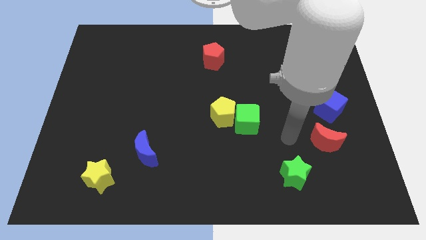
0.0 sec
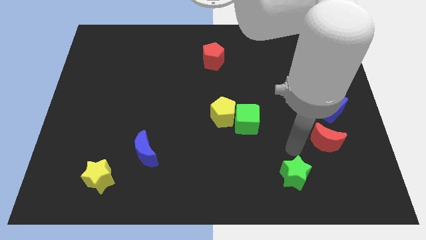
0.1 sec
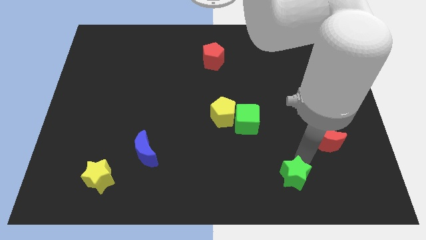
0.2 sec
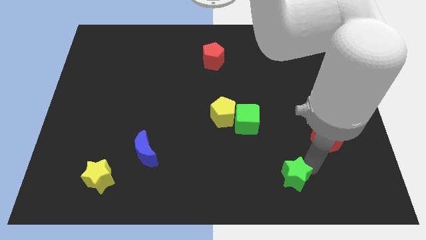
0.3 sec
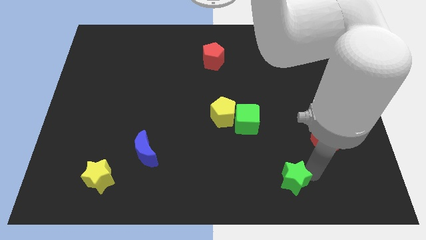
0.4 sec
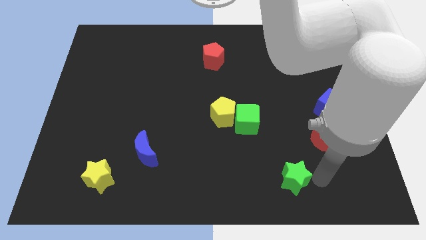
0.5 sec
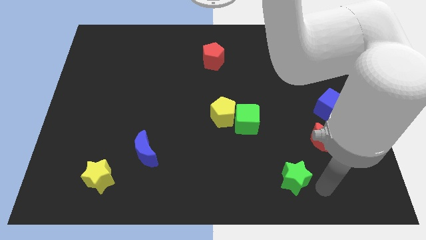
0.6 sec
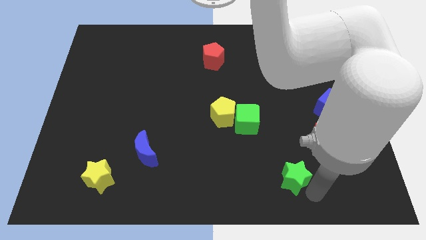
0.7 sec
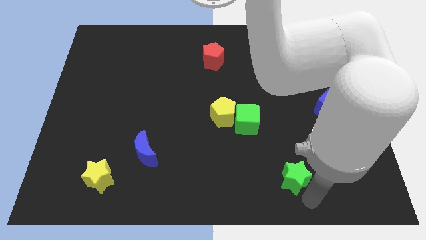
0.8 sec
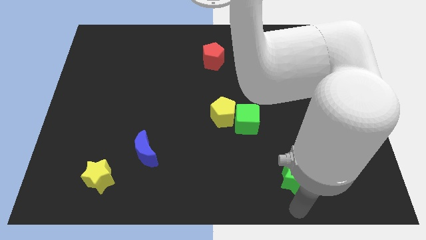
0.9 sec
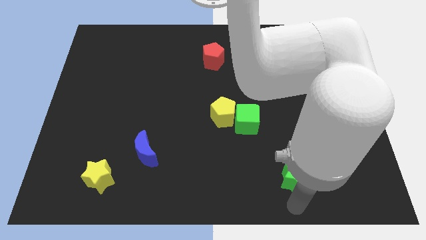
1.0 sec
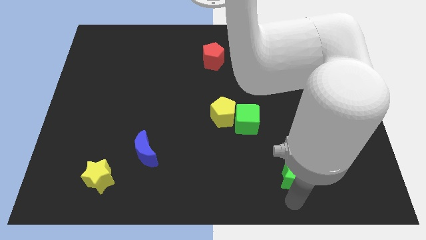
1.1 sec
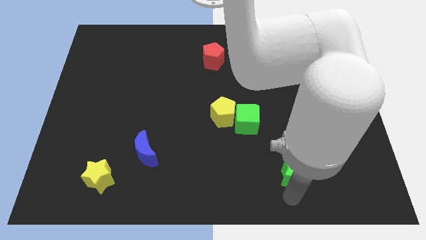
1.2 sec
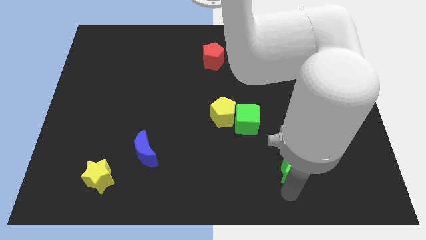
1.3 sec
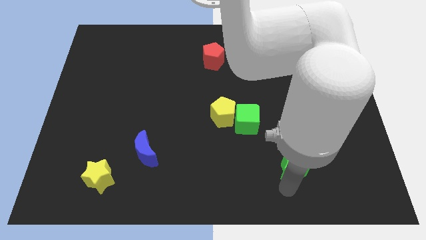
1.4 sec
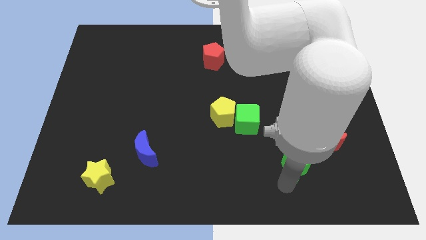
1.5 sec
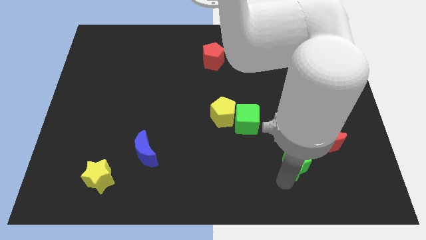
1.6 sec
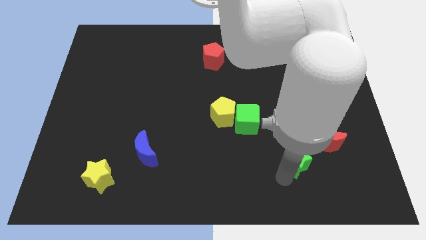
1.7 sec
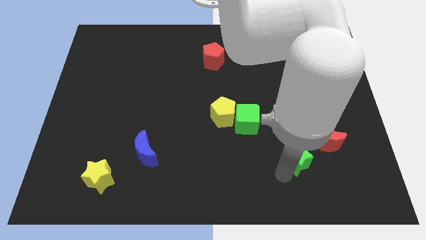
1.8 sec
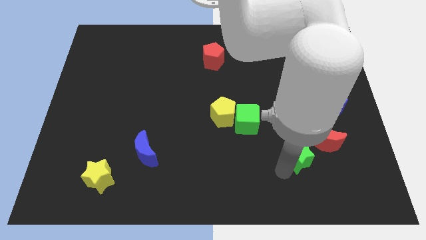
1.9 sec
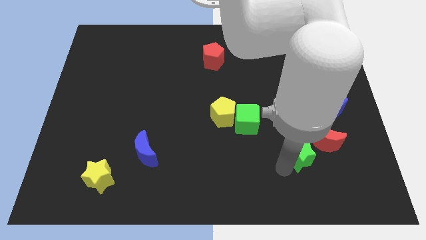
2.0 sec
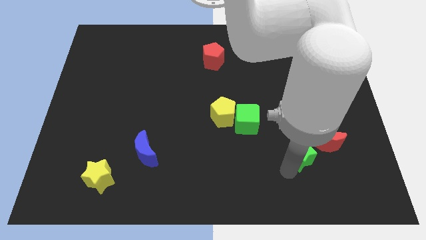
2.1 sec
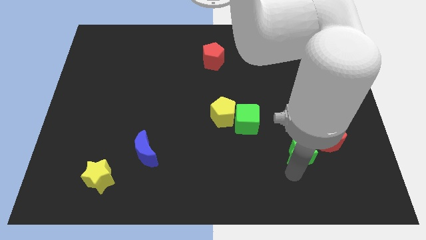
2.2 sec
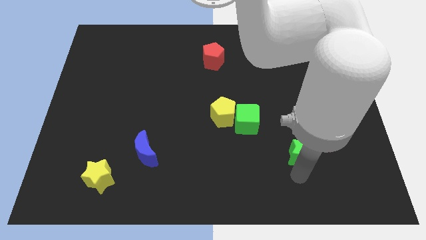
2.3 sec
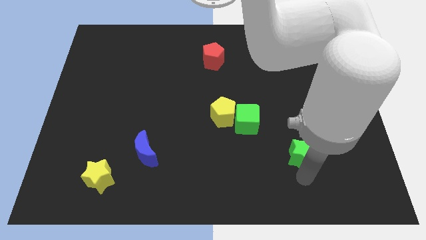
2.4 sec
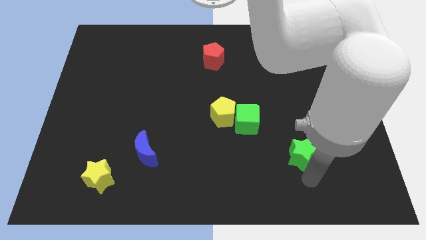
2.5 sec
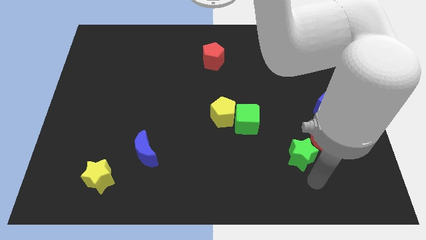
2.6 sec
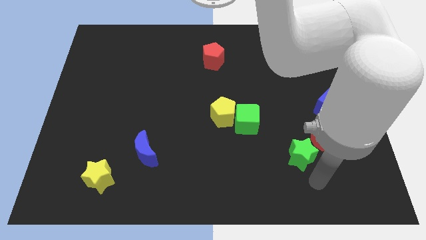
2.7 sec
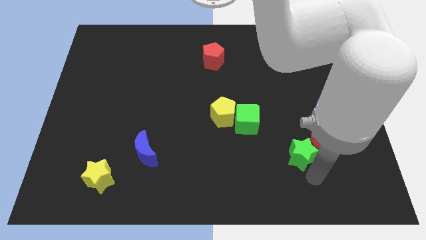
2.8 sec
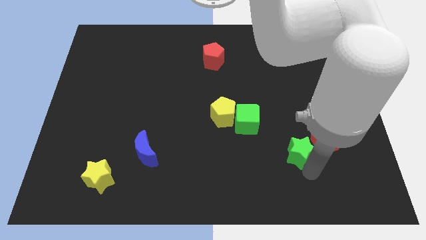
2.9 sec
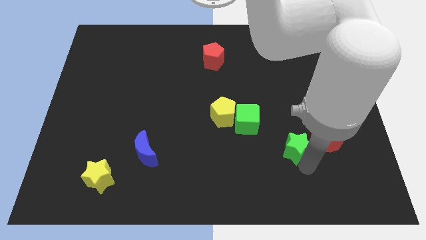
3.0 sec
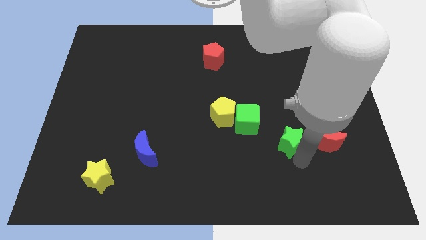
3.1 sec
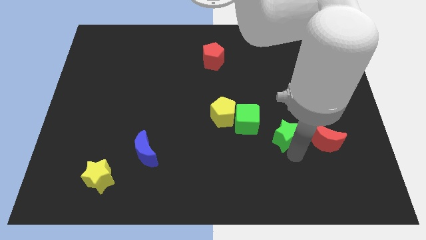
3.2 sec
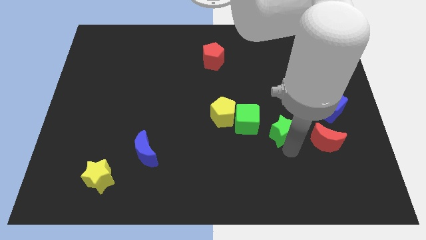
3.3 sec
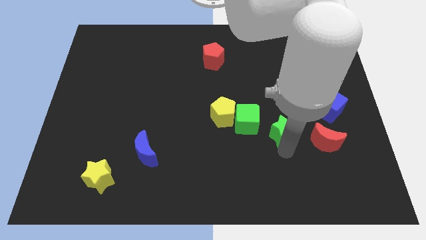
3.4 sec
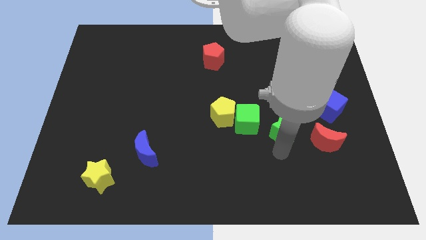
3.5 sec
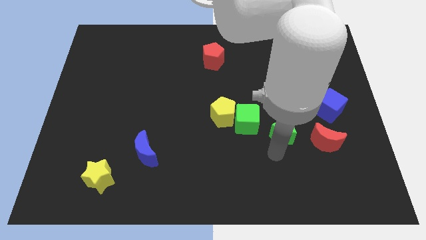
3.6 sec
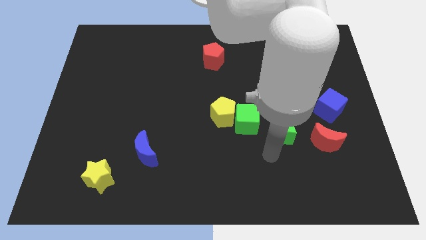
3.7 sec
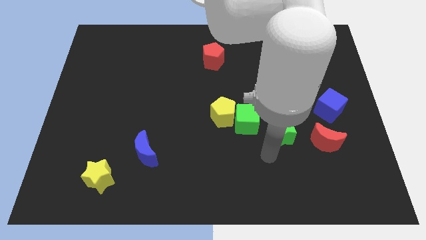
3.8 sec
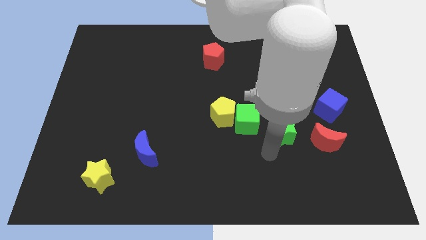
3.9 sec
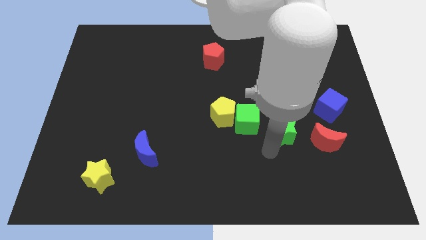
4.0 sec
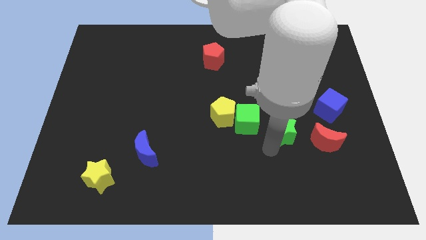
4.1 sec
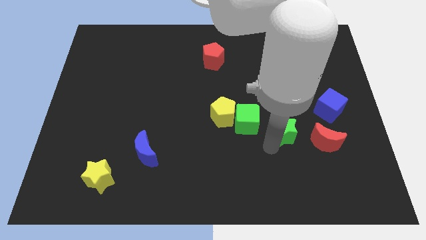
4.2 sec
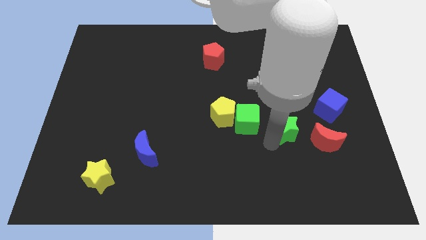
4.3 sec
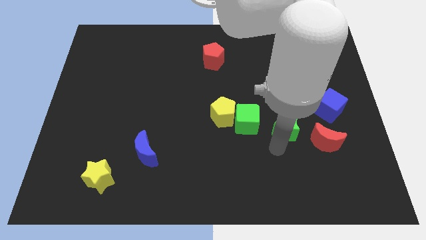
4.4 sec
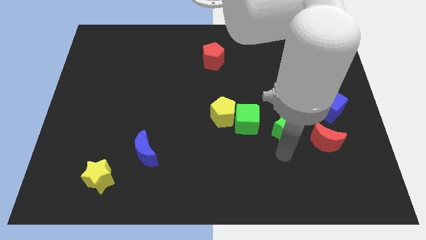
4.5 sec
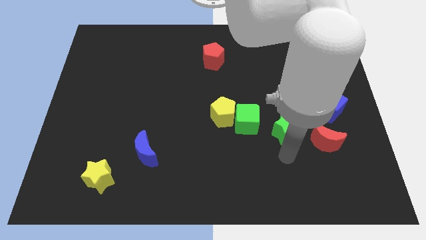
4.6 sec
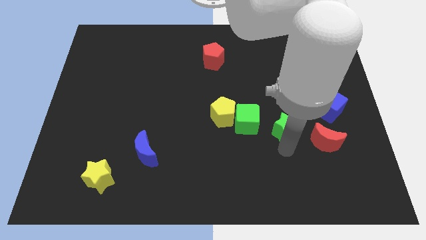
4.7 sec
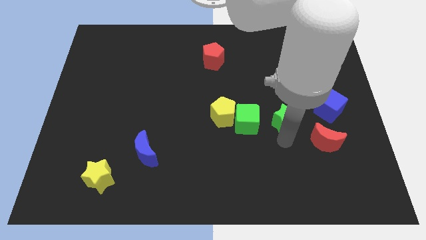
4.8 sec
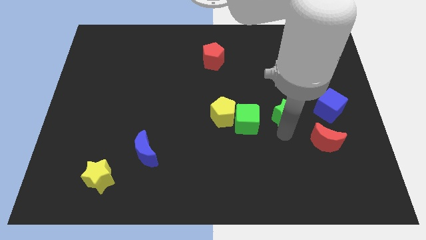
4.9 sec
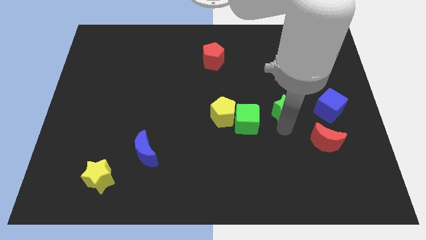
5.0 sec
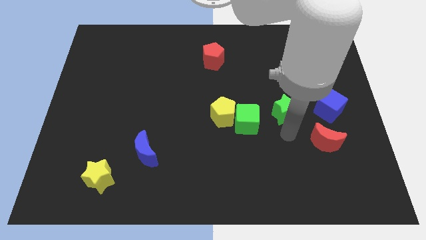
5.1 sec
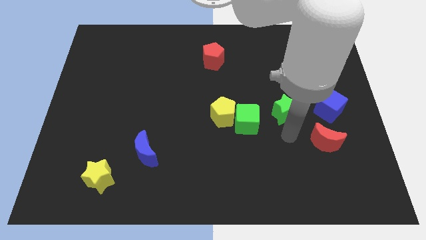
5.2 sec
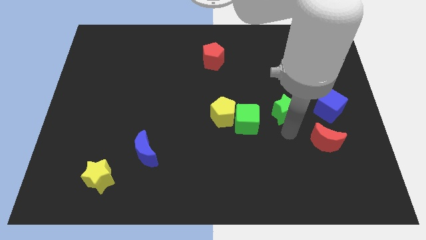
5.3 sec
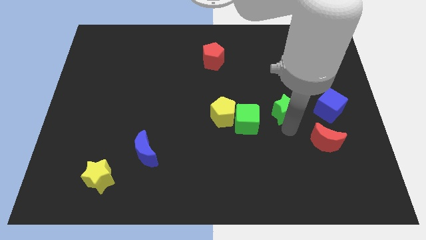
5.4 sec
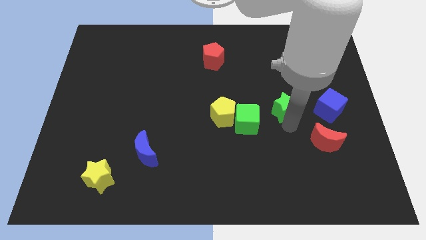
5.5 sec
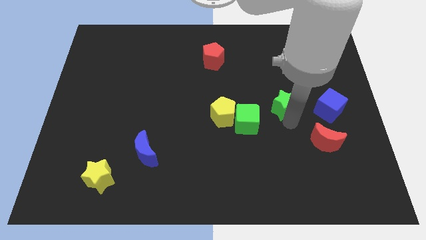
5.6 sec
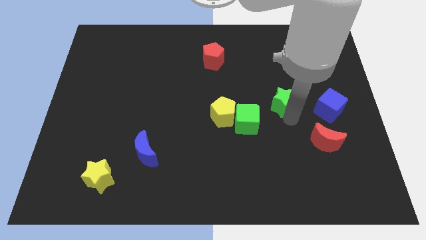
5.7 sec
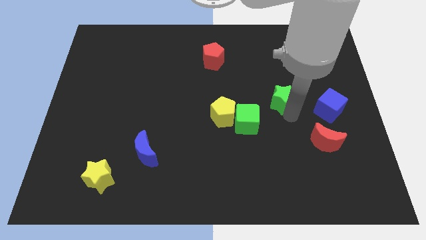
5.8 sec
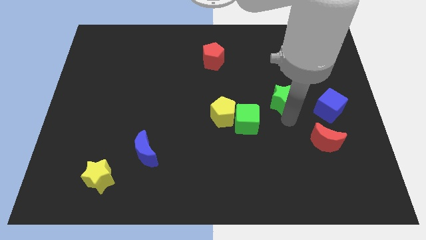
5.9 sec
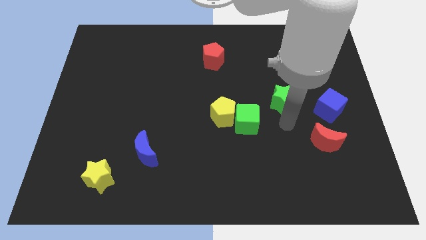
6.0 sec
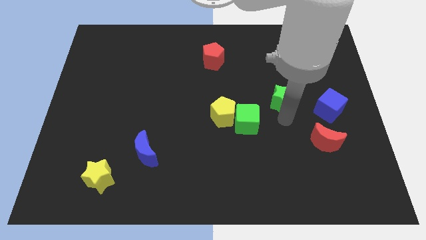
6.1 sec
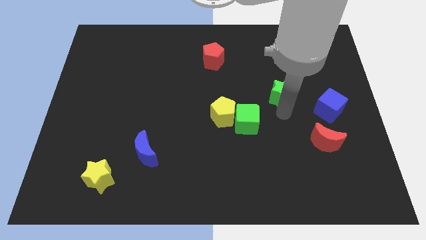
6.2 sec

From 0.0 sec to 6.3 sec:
slide the green star up

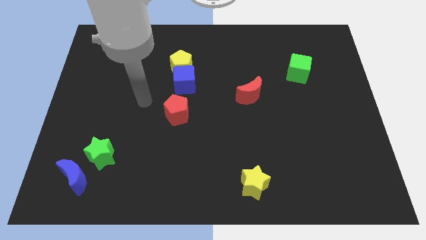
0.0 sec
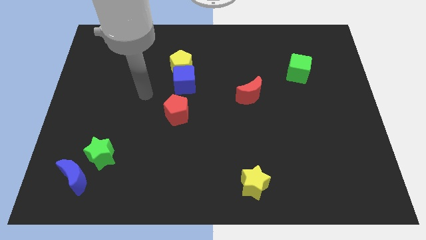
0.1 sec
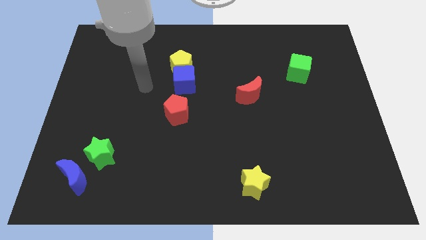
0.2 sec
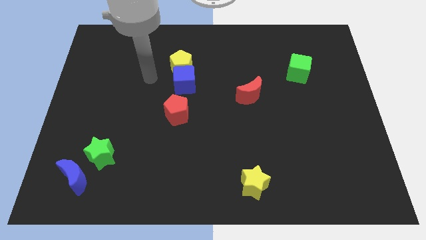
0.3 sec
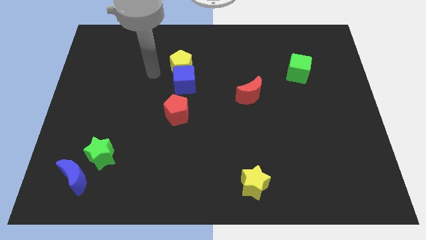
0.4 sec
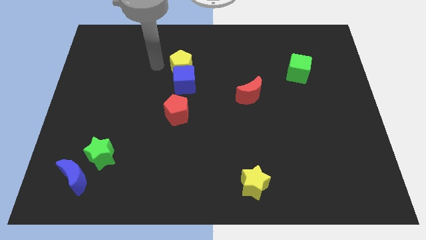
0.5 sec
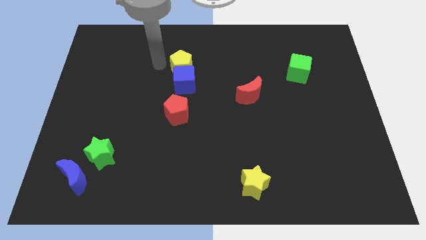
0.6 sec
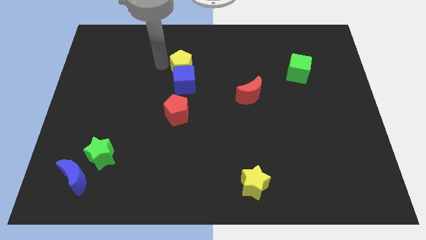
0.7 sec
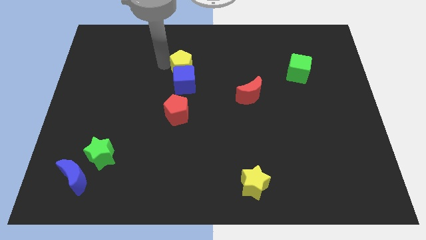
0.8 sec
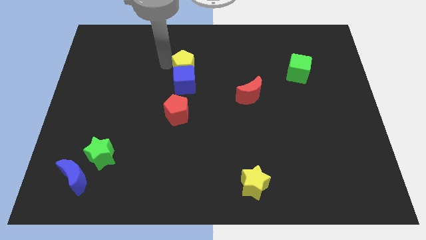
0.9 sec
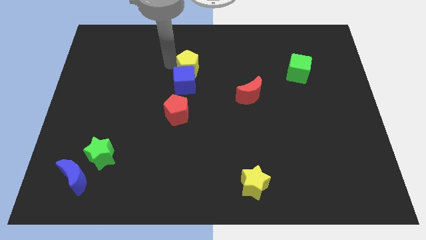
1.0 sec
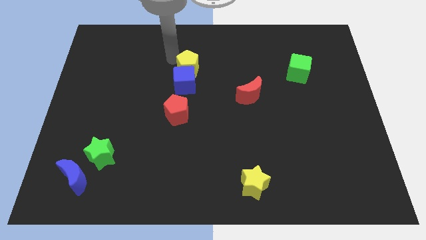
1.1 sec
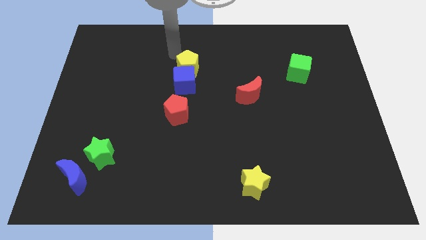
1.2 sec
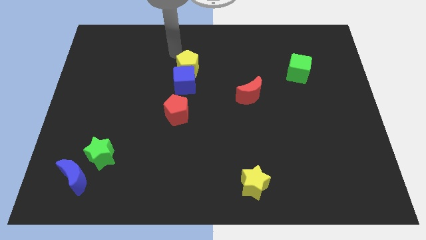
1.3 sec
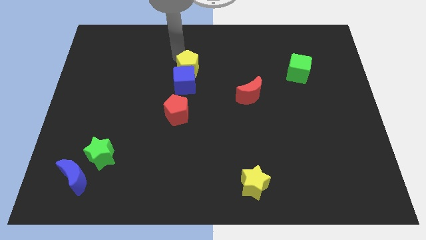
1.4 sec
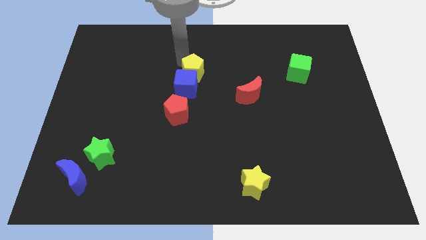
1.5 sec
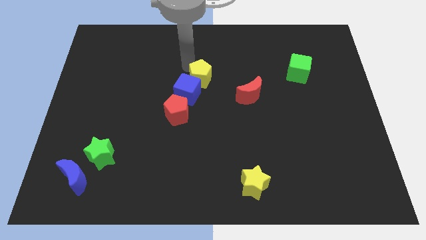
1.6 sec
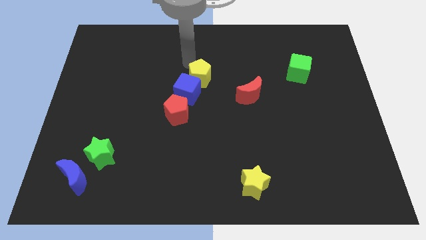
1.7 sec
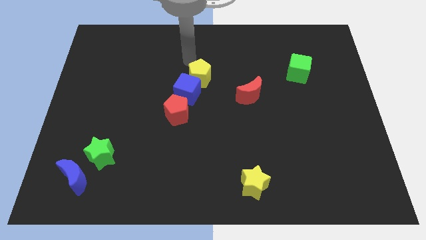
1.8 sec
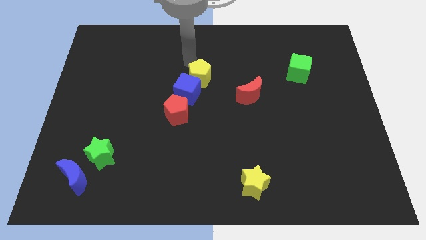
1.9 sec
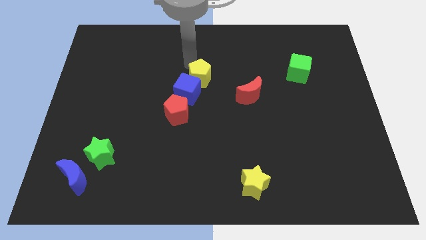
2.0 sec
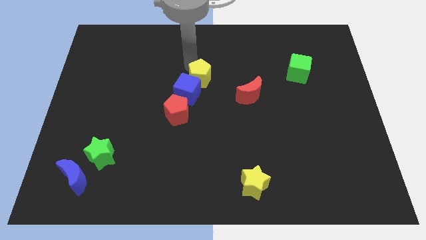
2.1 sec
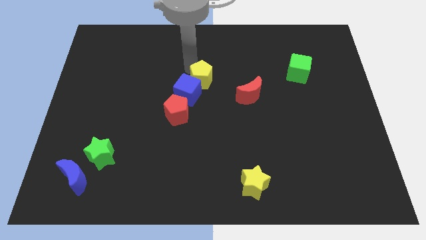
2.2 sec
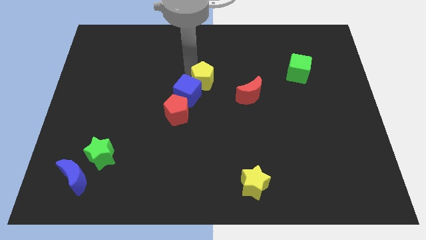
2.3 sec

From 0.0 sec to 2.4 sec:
push the yellow pentagon a little down and to the right
